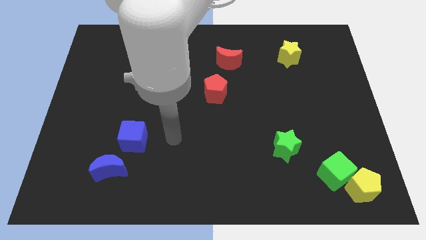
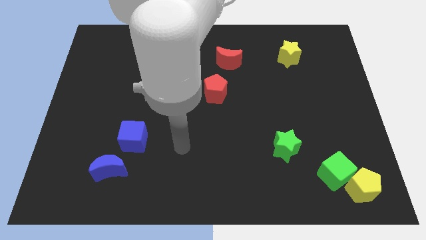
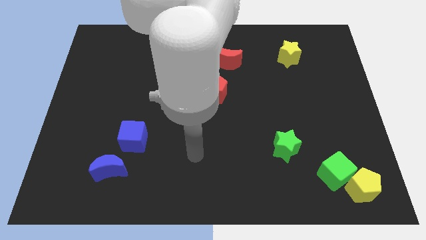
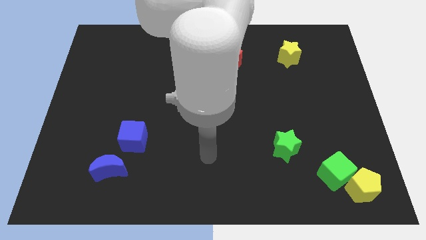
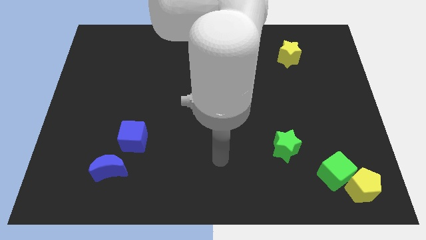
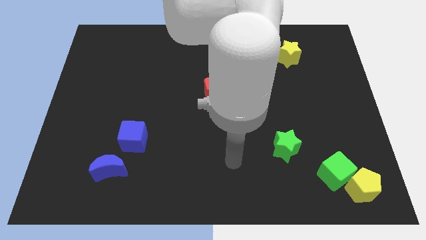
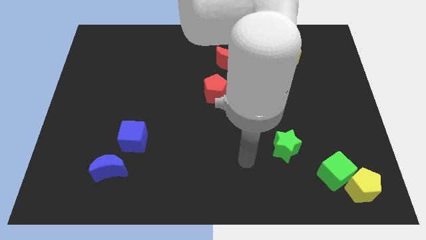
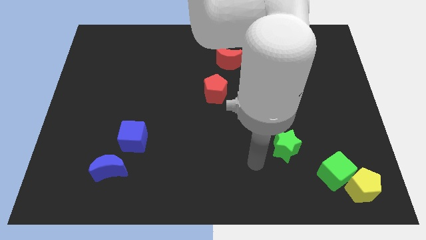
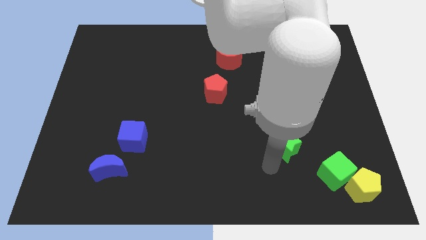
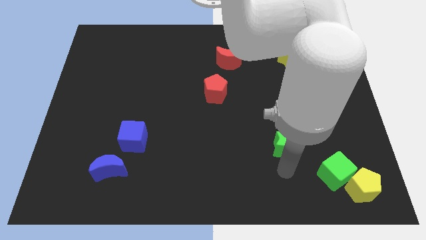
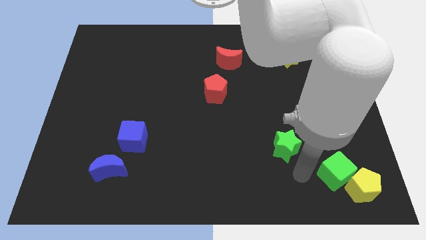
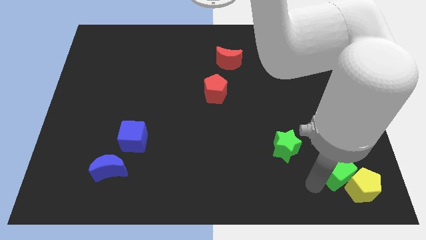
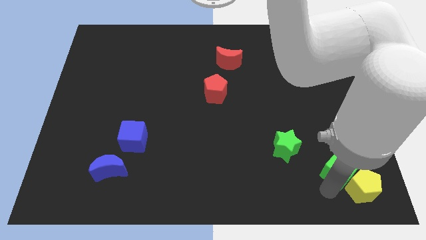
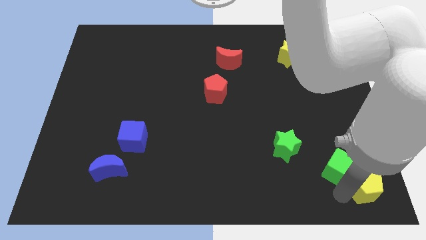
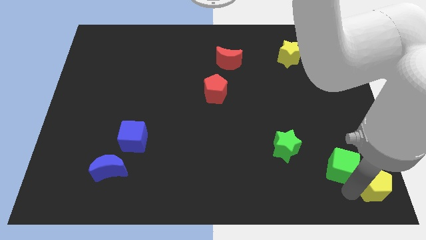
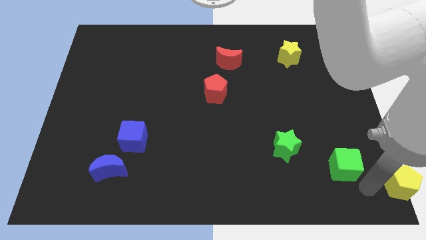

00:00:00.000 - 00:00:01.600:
move the green cube away from the yellow pentagon

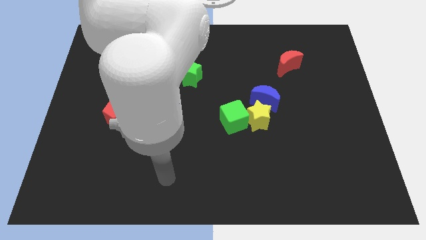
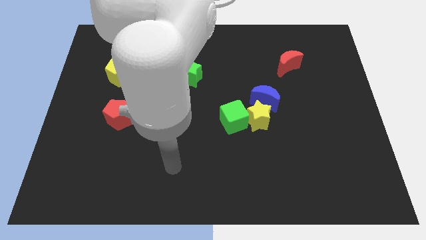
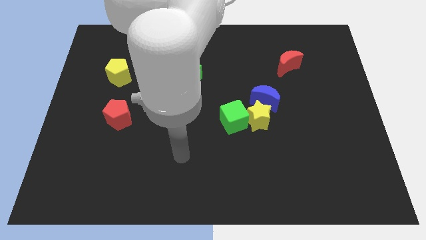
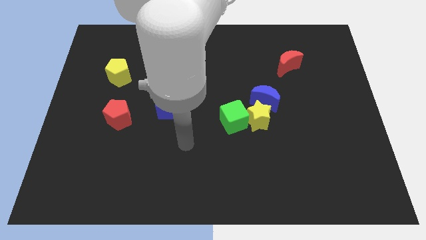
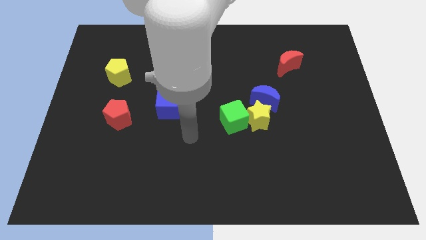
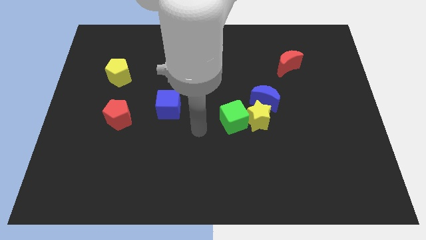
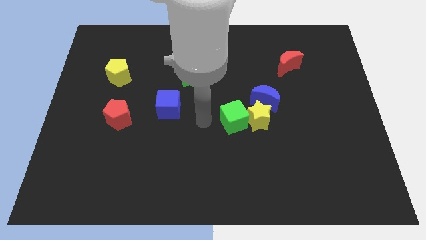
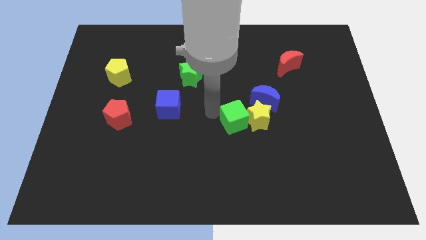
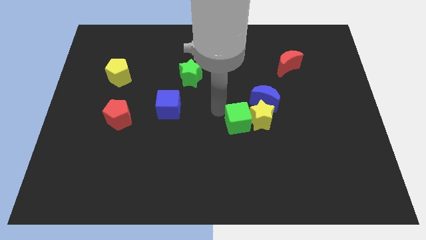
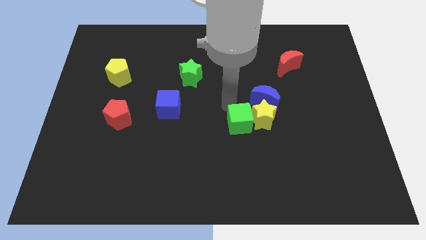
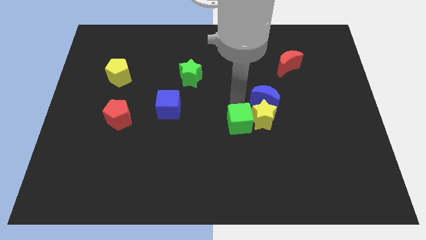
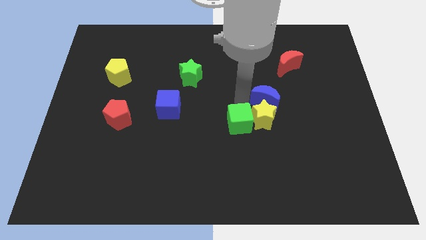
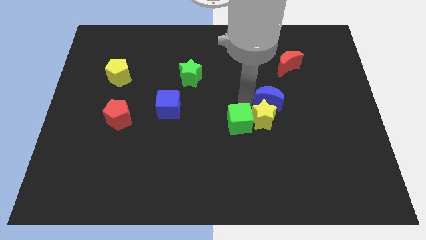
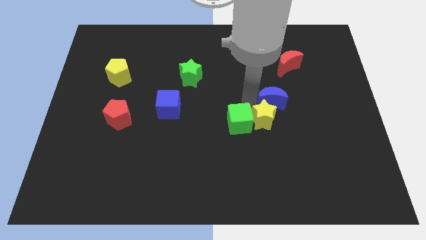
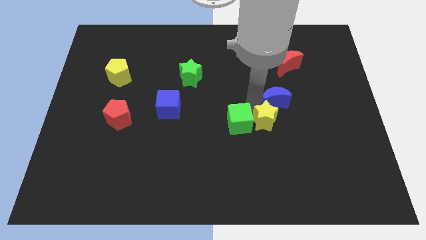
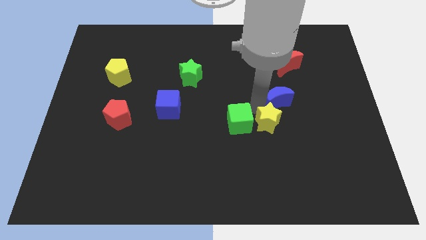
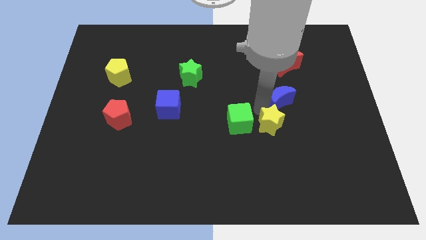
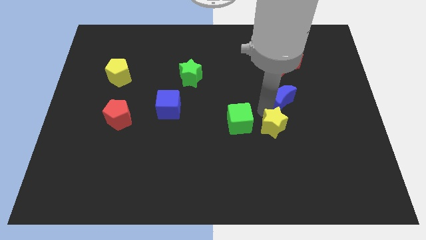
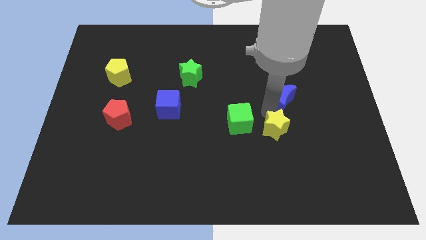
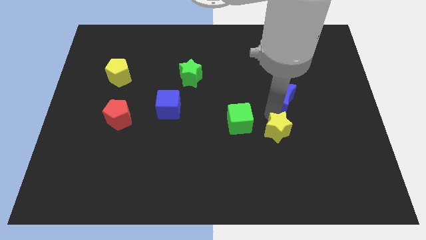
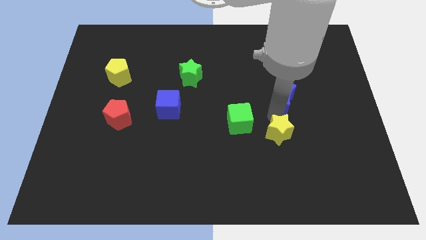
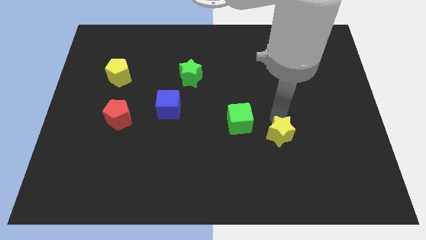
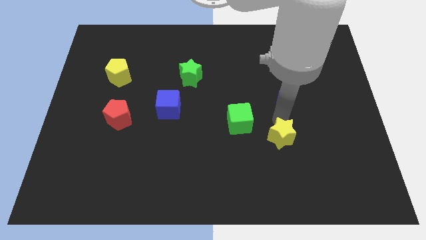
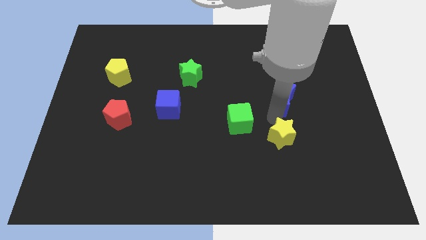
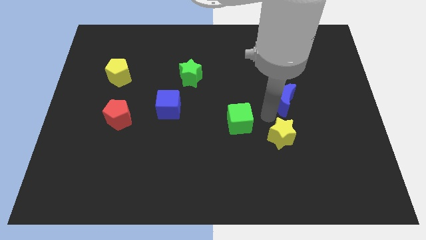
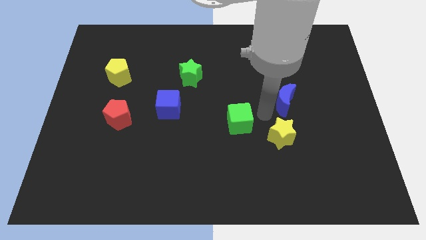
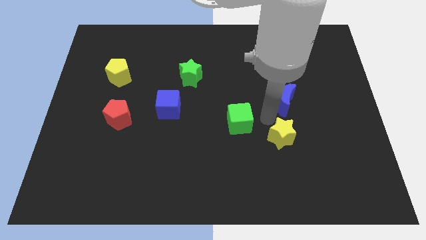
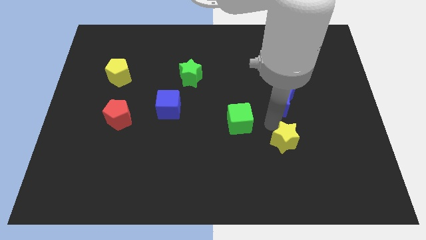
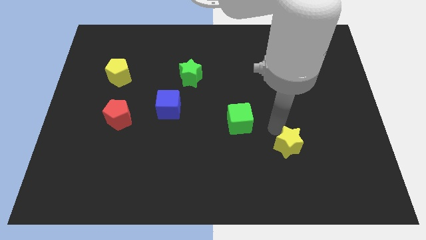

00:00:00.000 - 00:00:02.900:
separate the yellow star from the green cube and blue moon

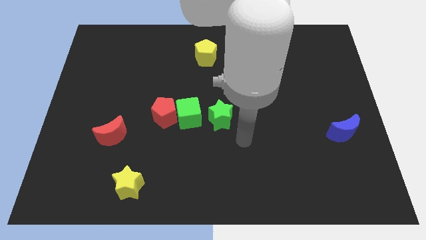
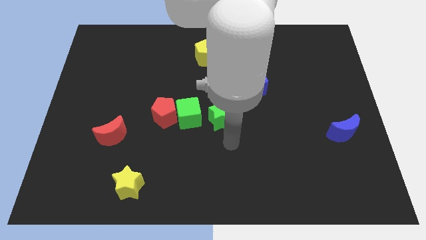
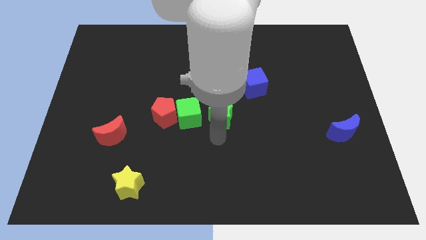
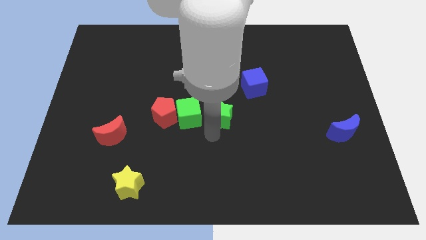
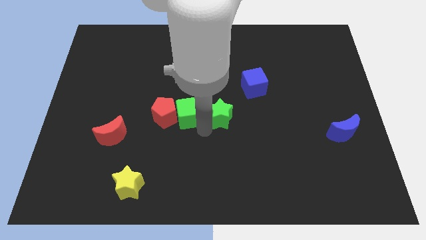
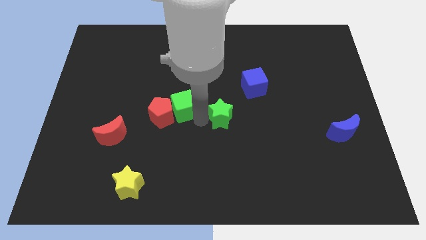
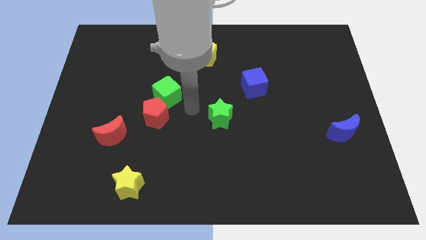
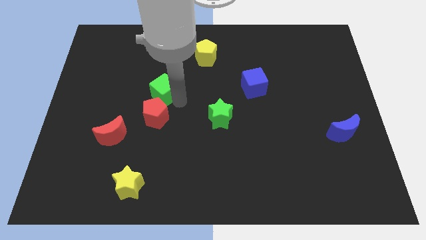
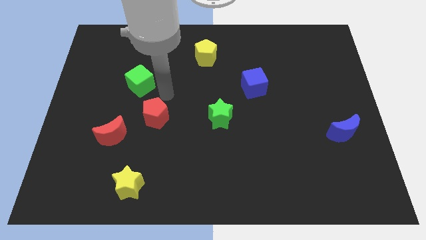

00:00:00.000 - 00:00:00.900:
move the red pentagon away from the green cube

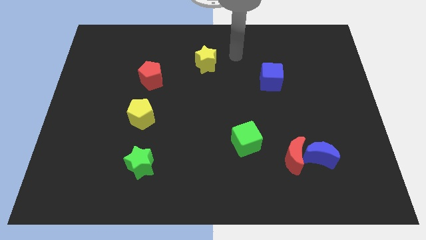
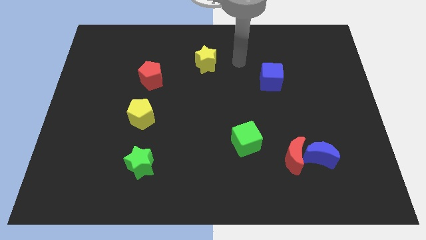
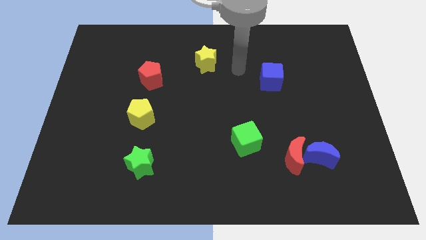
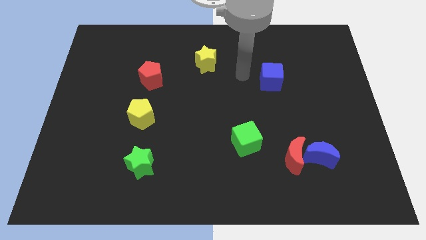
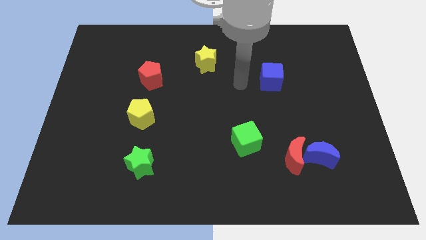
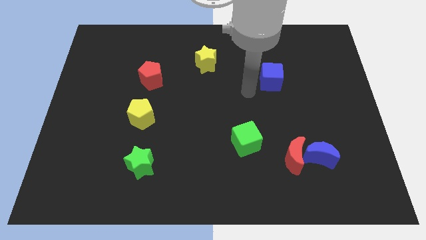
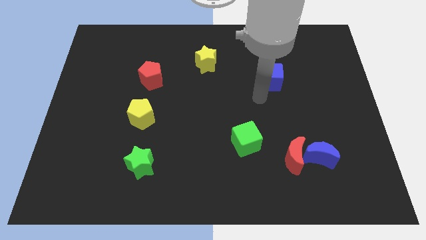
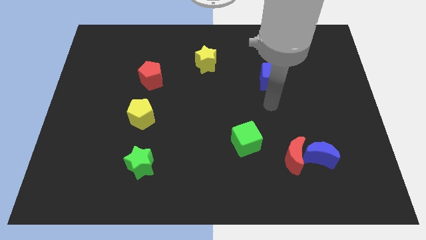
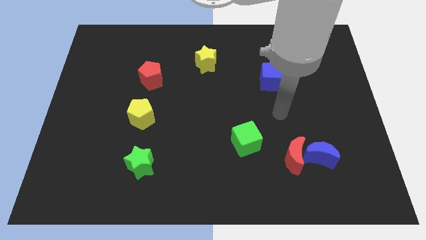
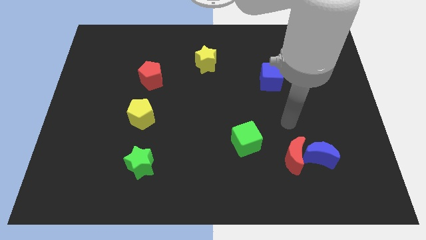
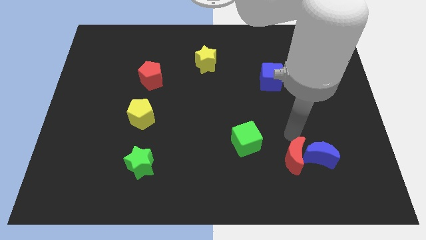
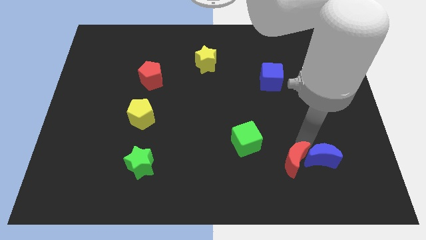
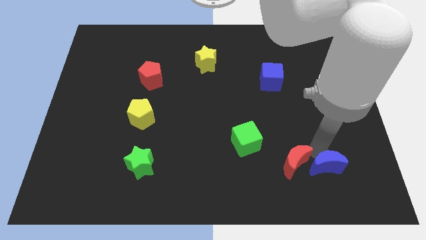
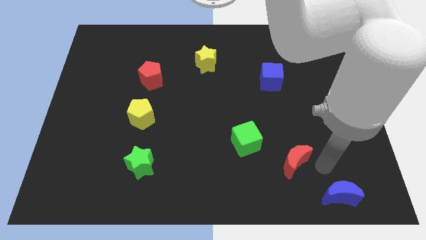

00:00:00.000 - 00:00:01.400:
separate the red moon from the blue moon

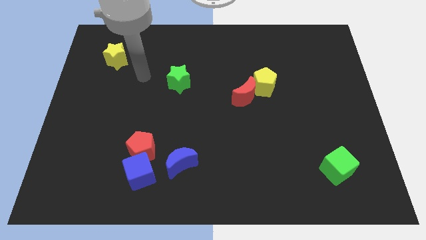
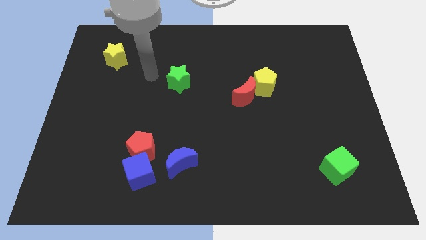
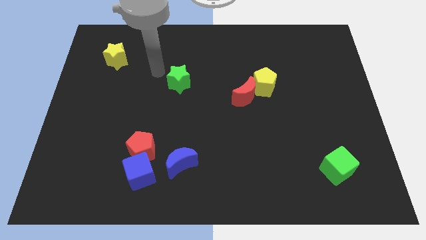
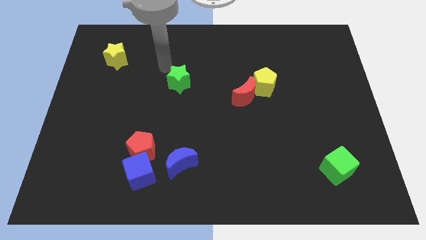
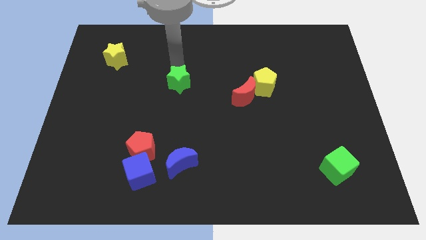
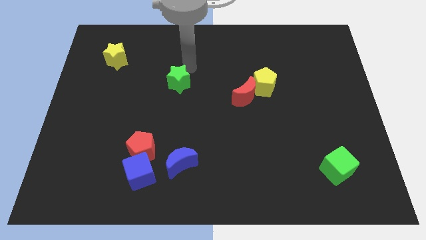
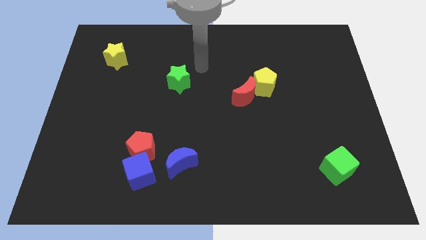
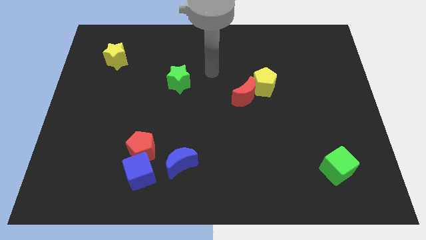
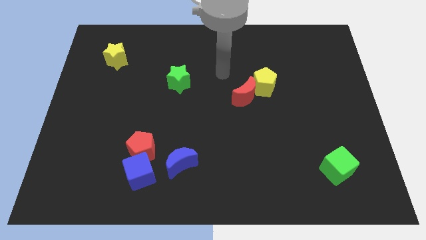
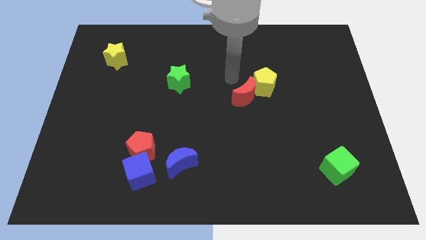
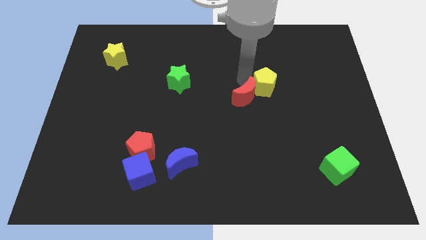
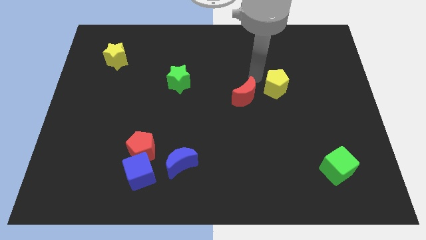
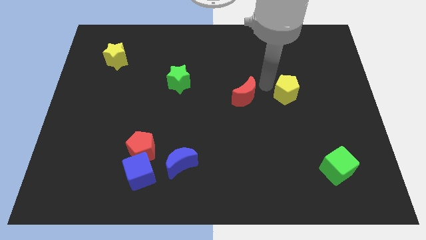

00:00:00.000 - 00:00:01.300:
separate the red moon from the yellow pentagon

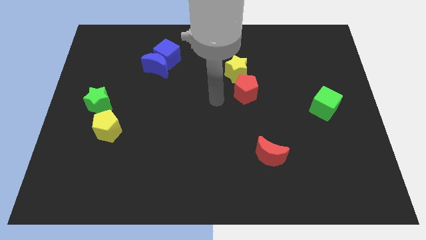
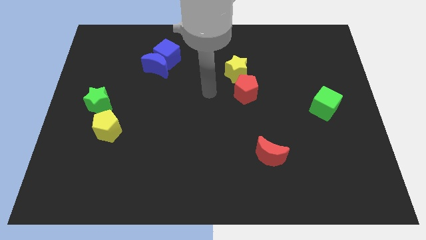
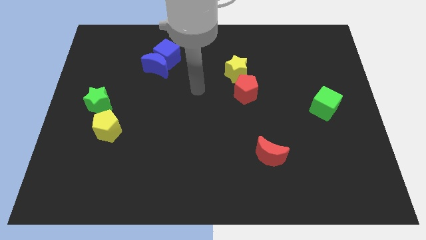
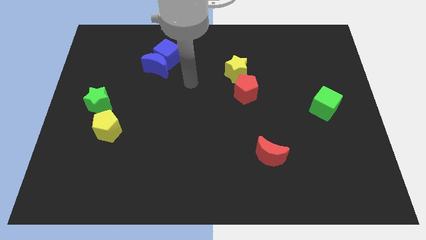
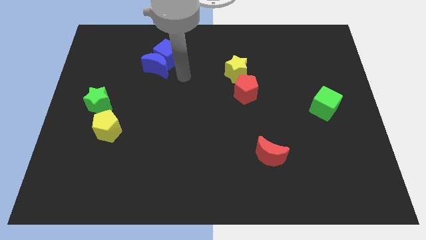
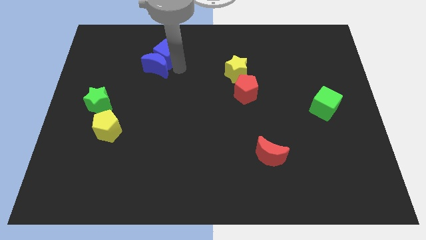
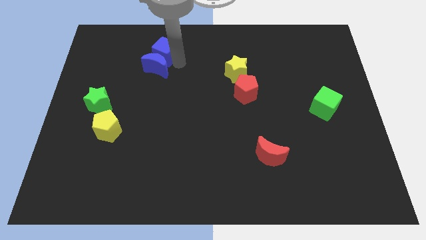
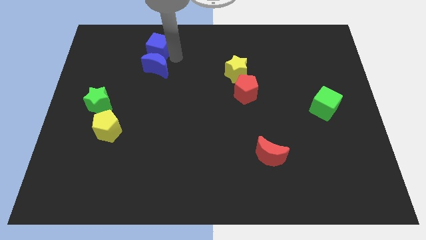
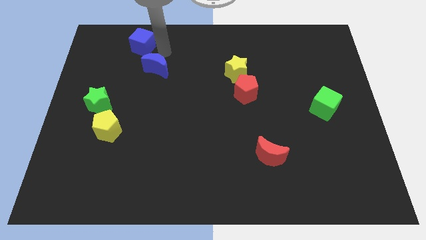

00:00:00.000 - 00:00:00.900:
pull the blue moon apart from the blue cube

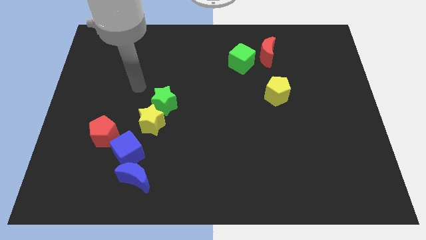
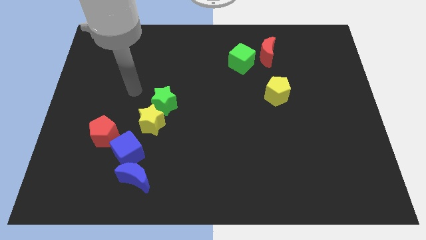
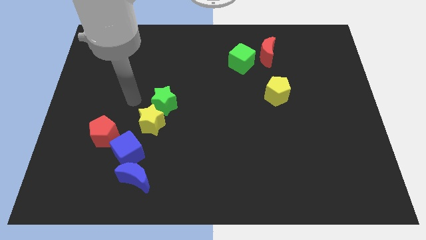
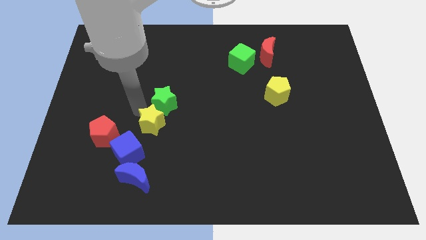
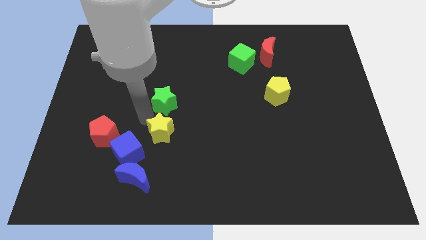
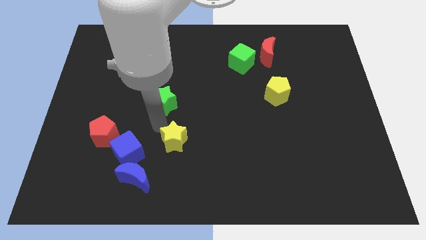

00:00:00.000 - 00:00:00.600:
pull the green star apart from the yellow star
